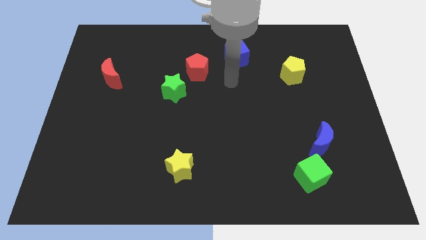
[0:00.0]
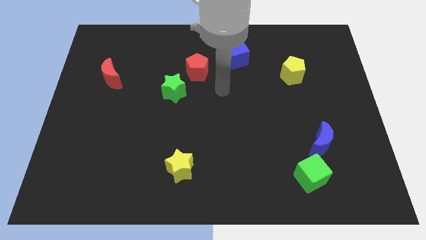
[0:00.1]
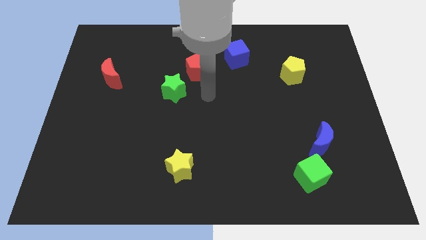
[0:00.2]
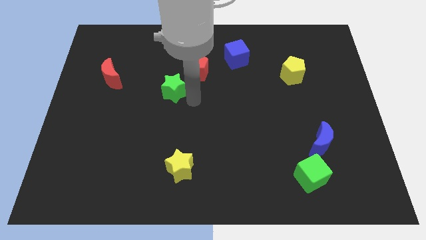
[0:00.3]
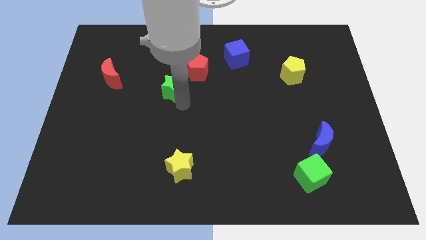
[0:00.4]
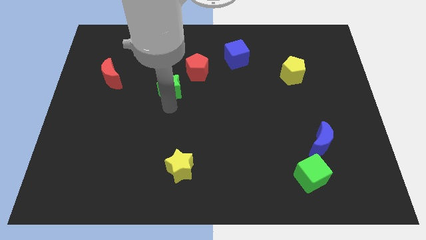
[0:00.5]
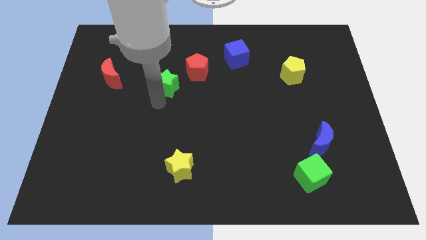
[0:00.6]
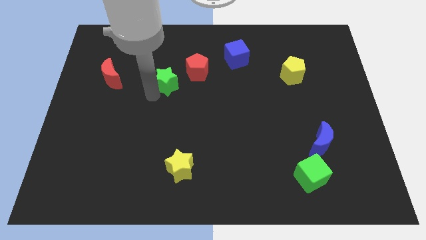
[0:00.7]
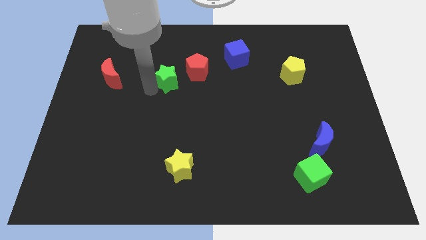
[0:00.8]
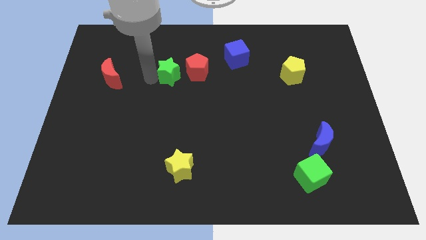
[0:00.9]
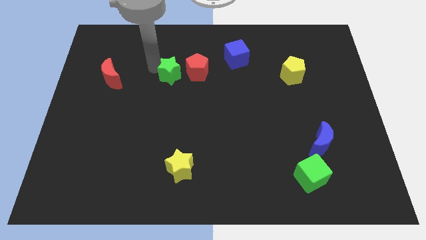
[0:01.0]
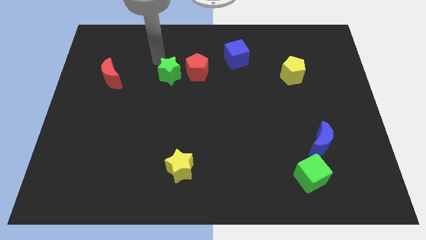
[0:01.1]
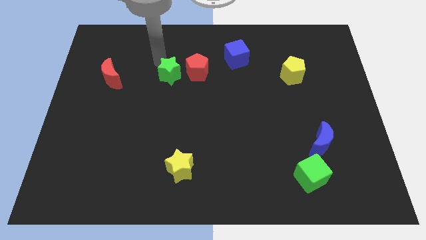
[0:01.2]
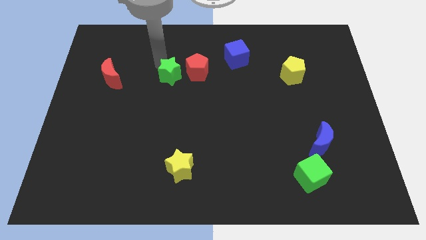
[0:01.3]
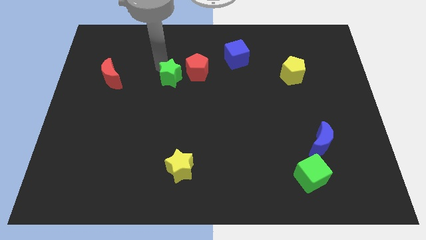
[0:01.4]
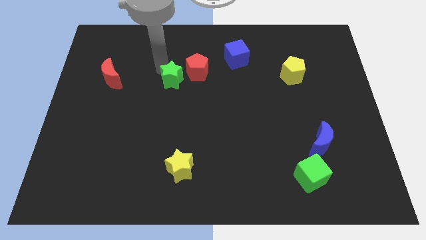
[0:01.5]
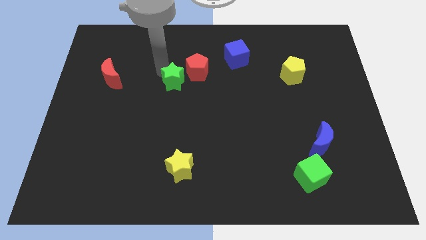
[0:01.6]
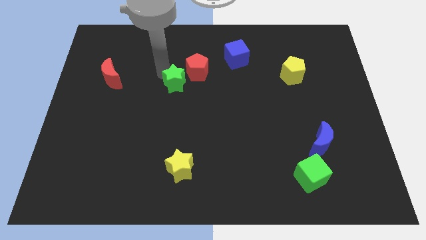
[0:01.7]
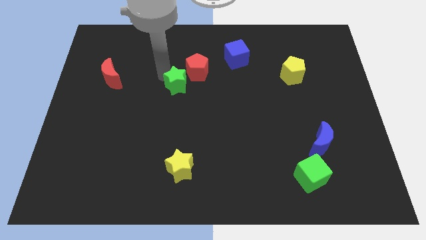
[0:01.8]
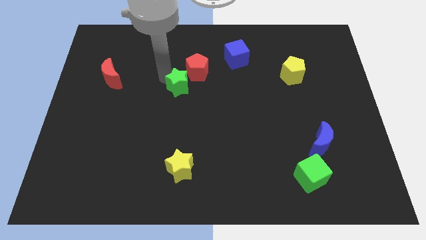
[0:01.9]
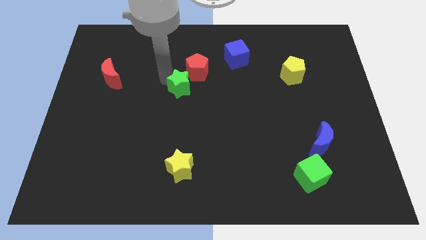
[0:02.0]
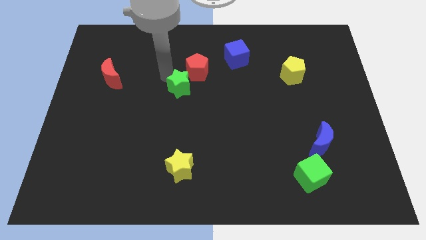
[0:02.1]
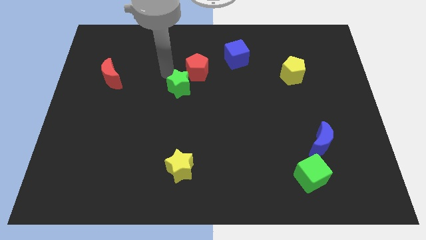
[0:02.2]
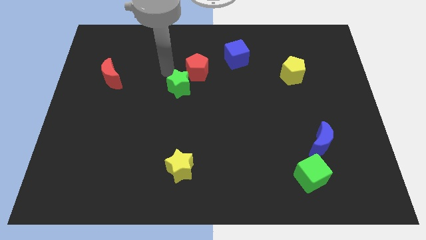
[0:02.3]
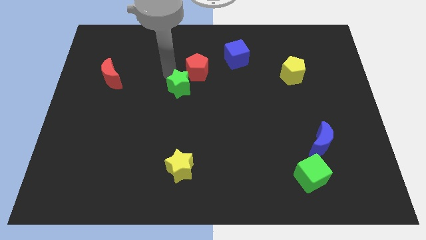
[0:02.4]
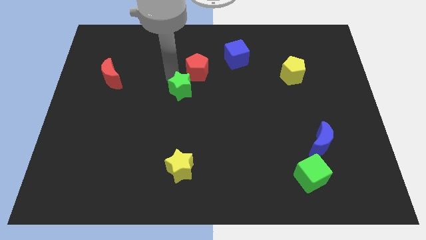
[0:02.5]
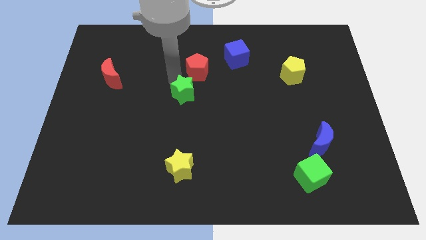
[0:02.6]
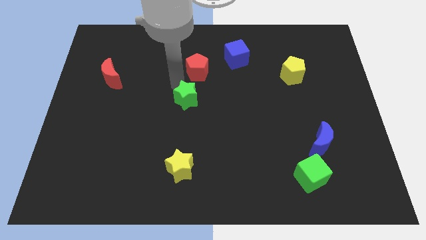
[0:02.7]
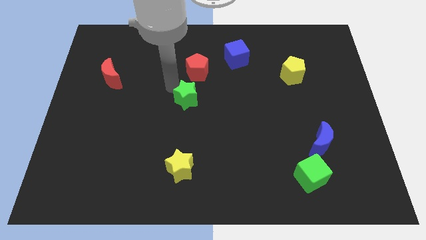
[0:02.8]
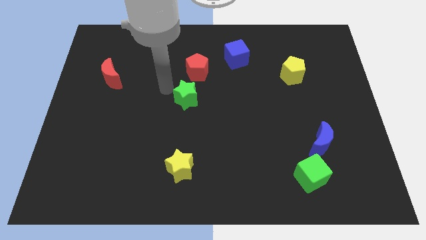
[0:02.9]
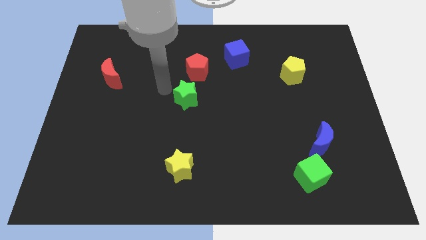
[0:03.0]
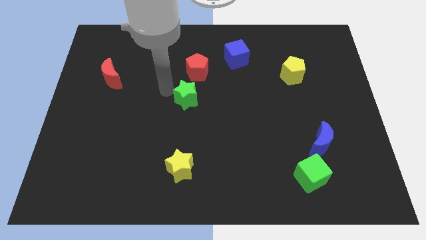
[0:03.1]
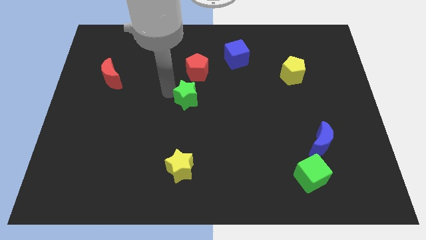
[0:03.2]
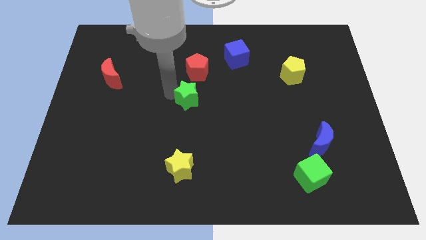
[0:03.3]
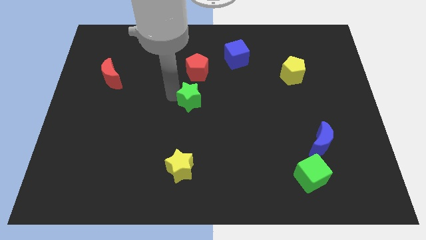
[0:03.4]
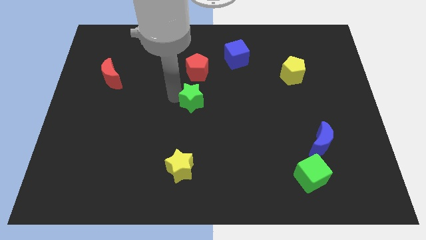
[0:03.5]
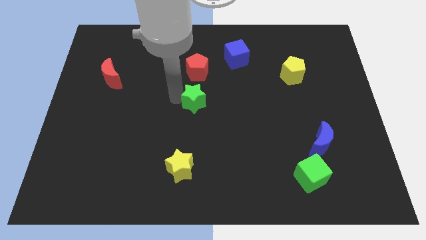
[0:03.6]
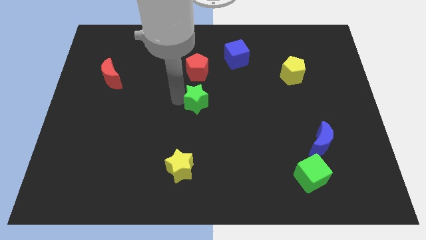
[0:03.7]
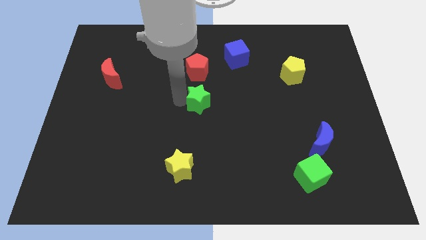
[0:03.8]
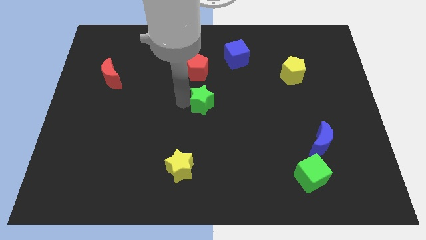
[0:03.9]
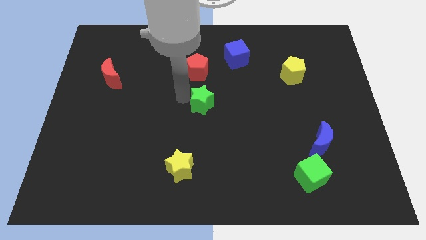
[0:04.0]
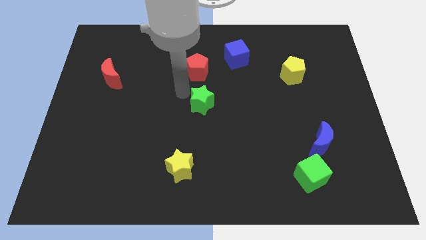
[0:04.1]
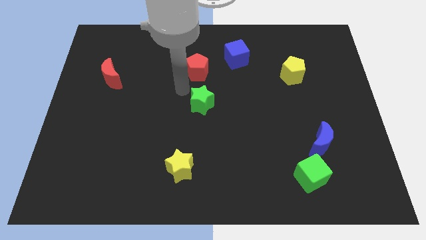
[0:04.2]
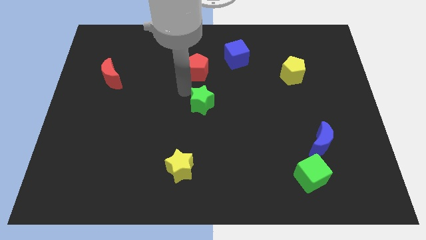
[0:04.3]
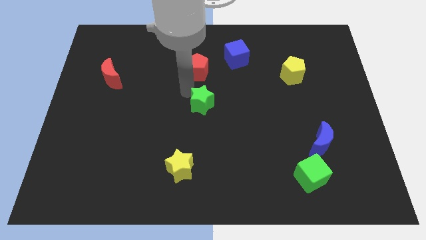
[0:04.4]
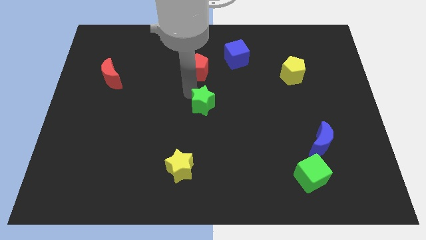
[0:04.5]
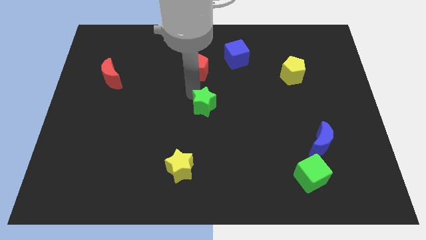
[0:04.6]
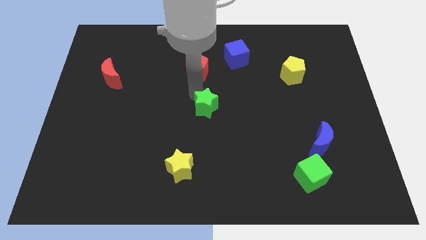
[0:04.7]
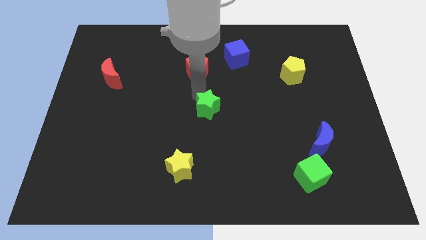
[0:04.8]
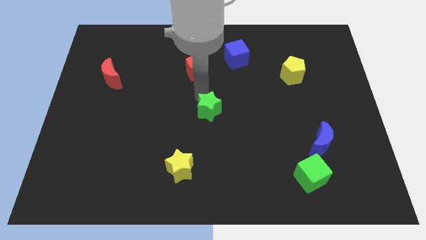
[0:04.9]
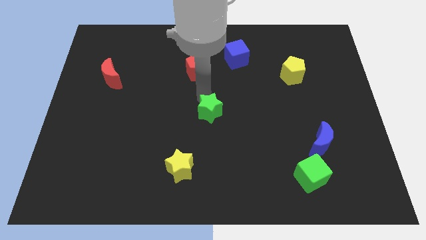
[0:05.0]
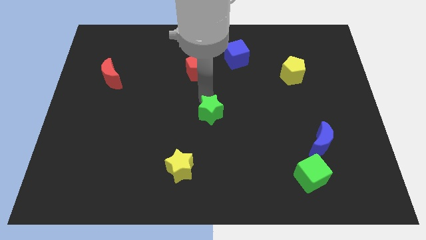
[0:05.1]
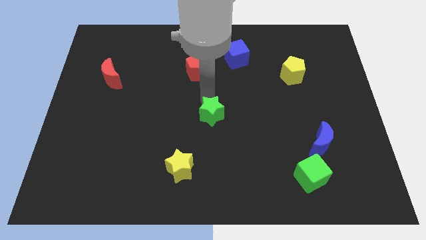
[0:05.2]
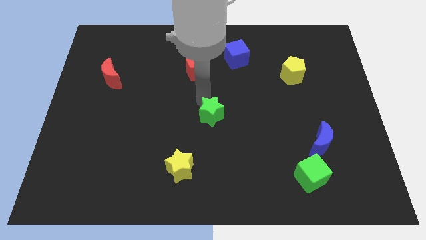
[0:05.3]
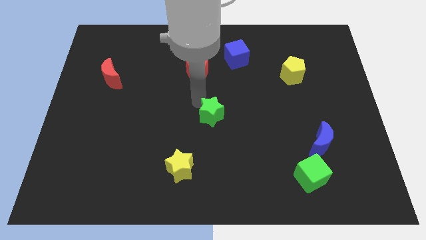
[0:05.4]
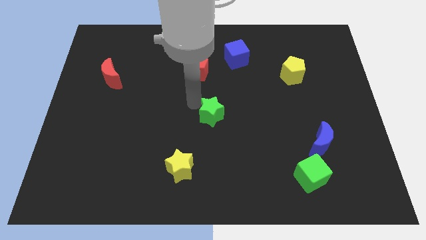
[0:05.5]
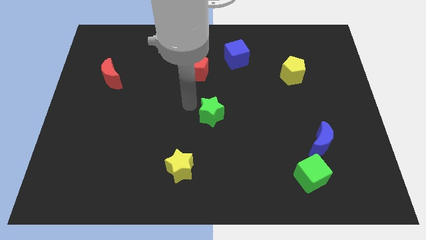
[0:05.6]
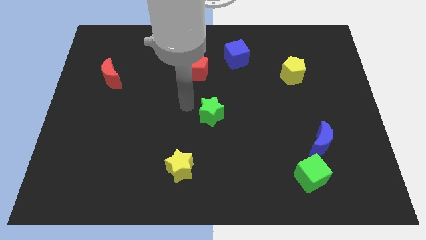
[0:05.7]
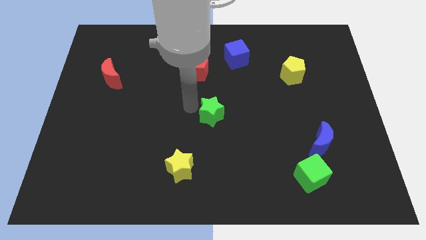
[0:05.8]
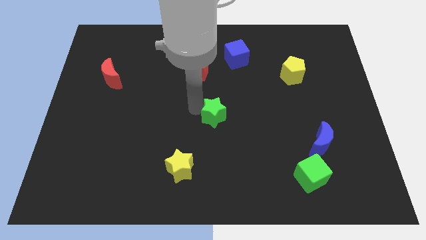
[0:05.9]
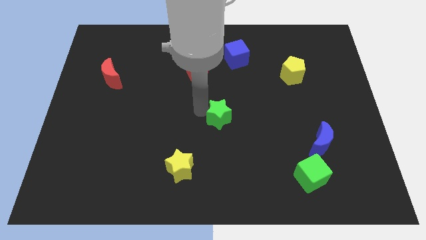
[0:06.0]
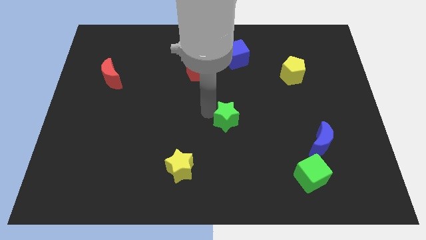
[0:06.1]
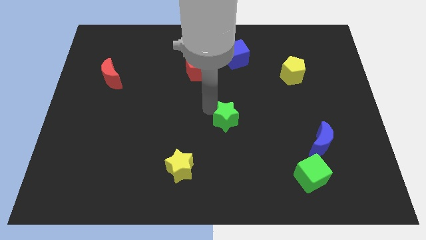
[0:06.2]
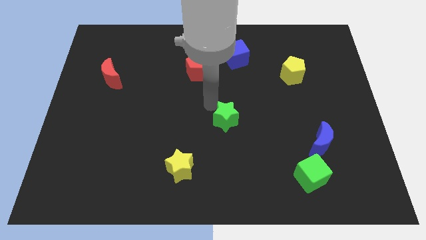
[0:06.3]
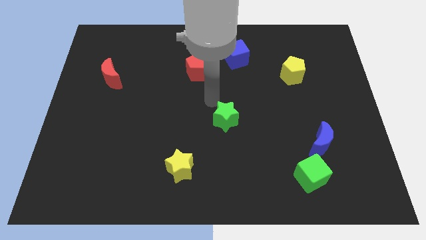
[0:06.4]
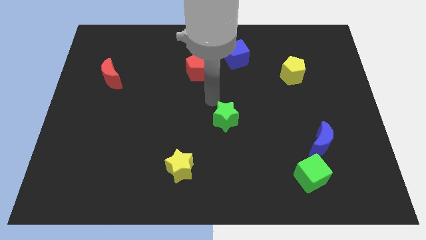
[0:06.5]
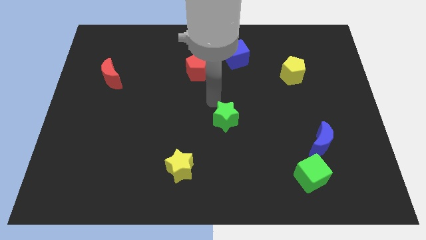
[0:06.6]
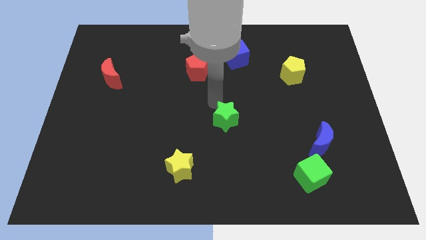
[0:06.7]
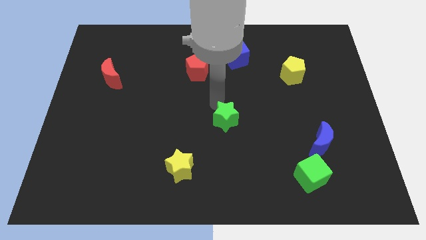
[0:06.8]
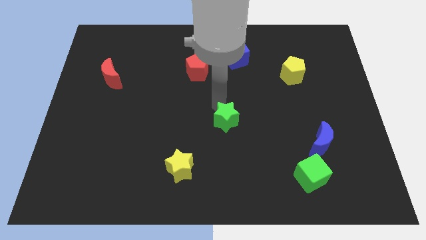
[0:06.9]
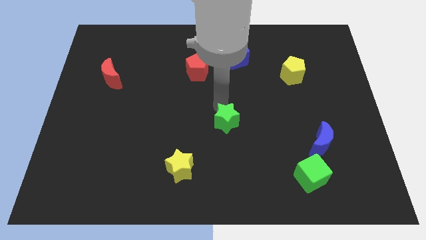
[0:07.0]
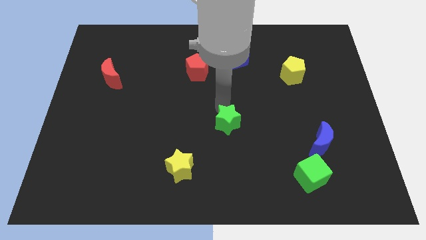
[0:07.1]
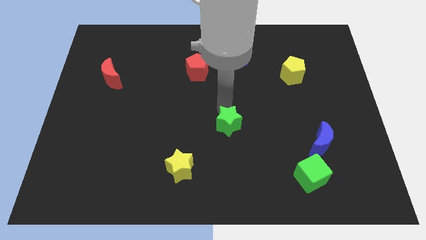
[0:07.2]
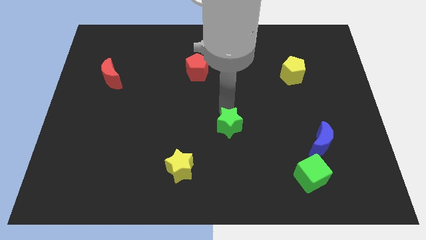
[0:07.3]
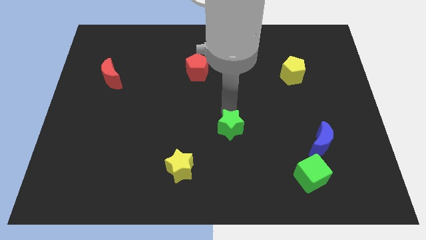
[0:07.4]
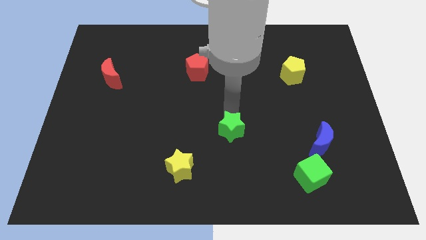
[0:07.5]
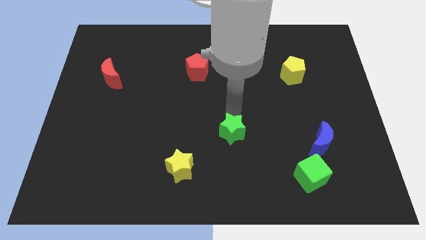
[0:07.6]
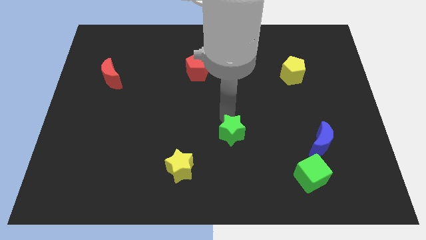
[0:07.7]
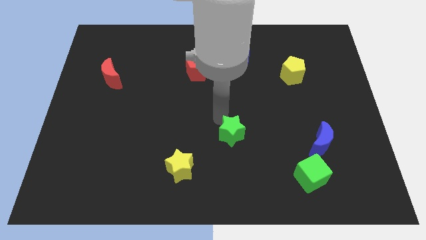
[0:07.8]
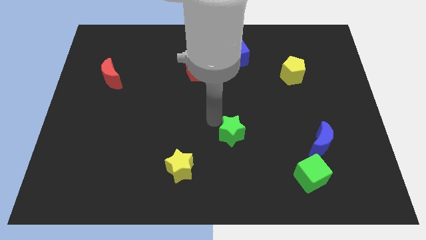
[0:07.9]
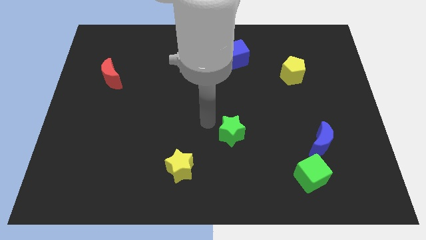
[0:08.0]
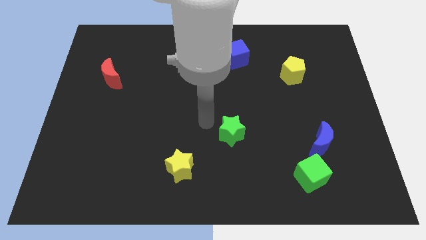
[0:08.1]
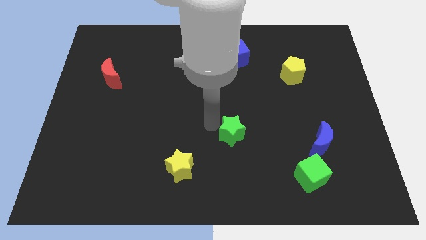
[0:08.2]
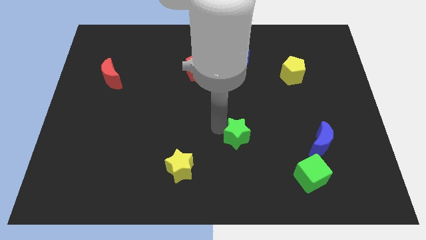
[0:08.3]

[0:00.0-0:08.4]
move the green star down and then to the right

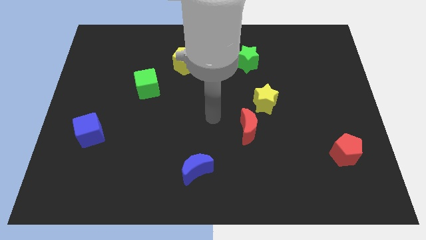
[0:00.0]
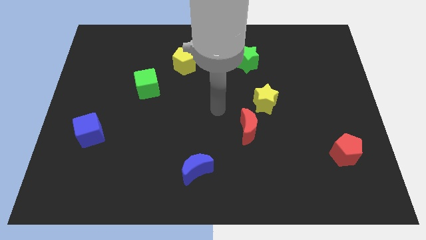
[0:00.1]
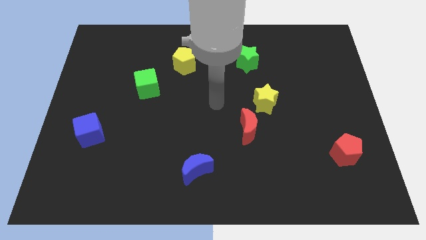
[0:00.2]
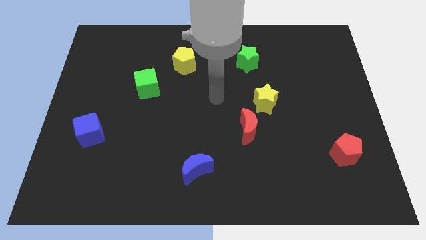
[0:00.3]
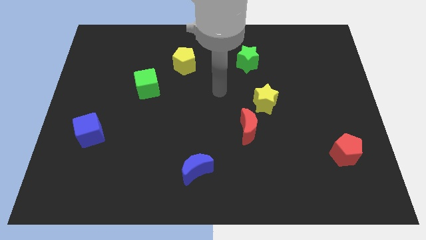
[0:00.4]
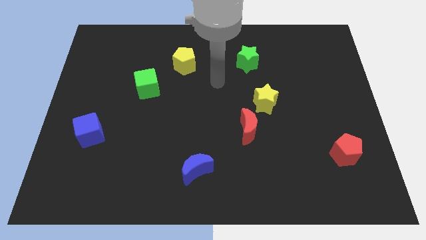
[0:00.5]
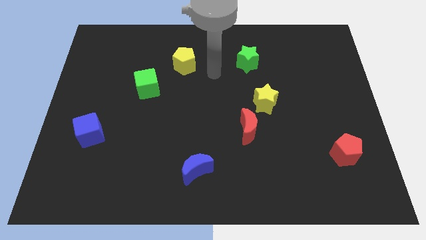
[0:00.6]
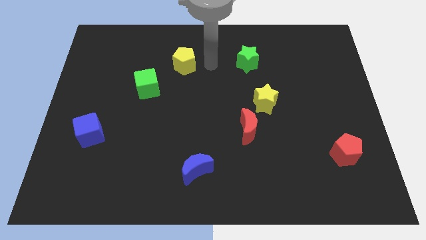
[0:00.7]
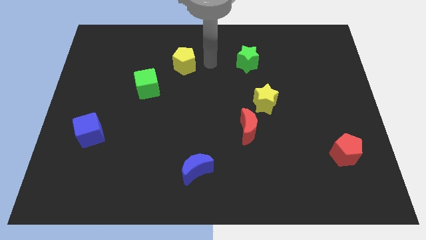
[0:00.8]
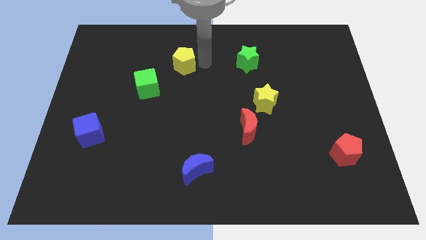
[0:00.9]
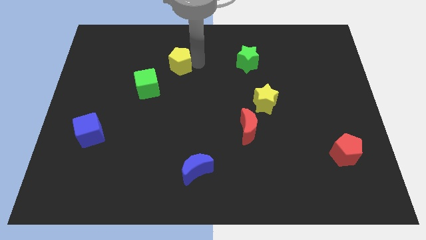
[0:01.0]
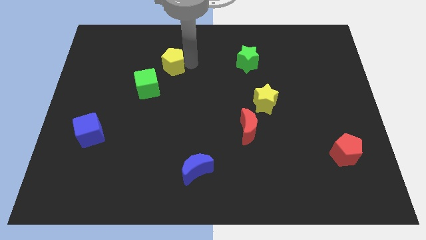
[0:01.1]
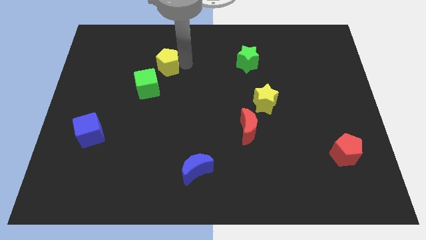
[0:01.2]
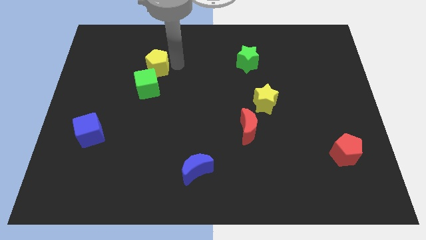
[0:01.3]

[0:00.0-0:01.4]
move the yellow pentagon a little bit to the left
